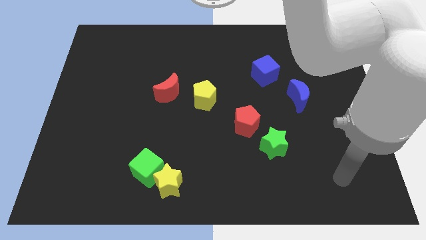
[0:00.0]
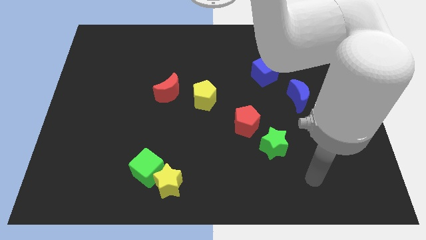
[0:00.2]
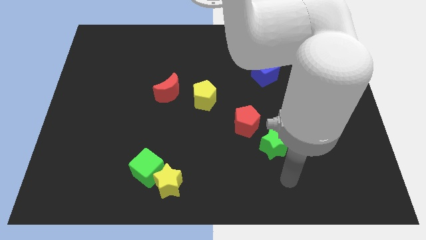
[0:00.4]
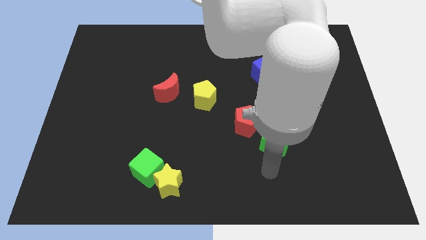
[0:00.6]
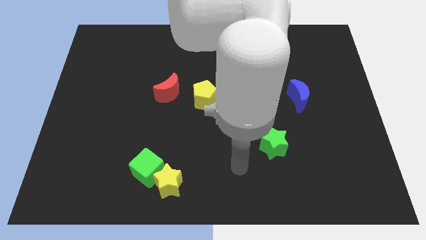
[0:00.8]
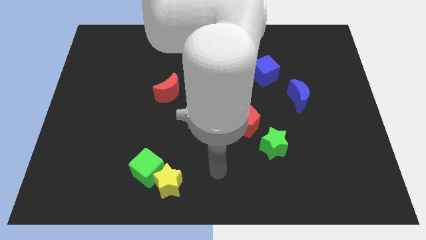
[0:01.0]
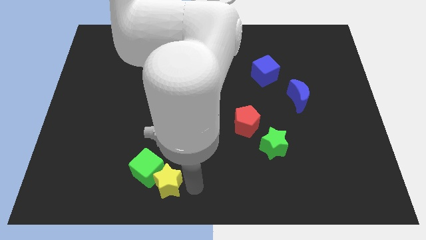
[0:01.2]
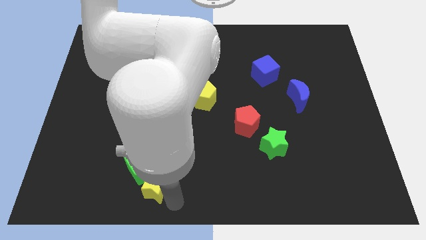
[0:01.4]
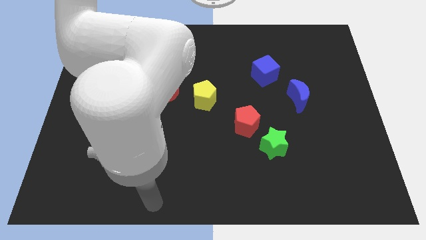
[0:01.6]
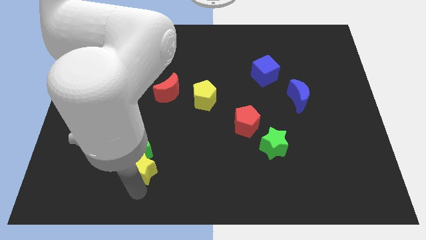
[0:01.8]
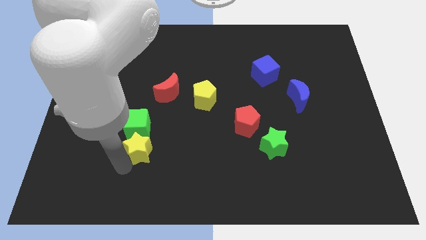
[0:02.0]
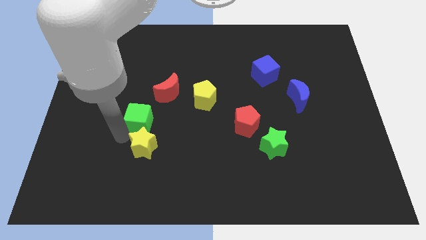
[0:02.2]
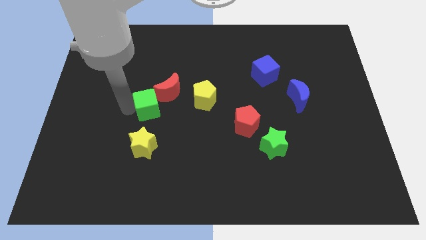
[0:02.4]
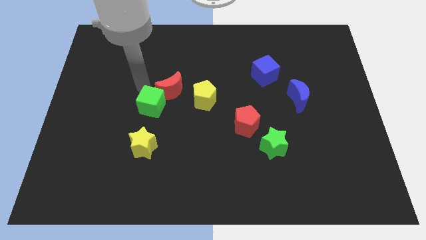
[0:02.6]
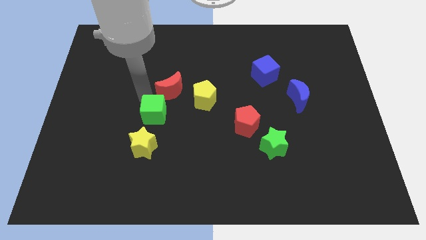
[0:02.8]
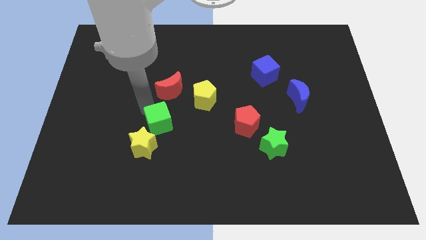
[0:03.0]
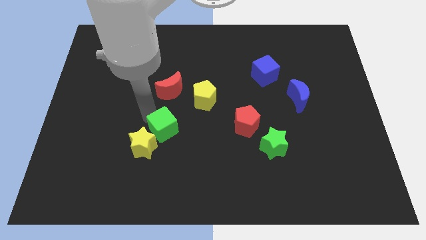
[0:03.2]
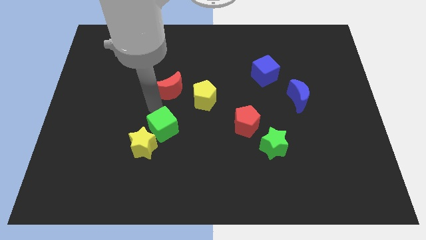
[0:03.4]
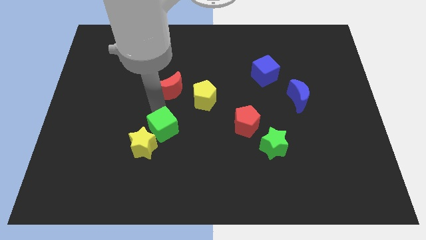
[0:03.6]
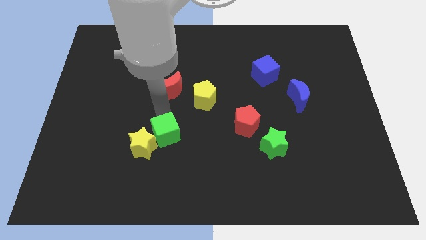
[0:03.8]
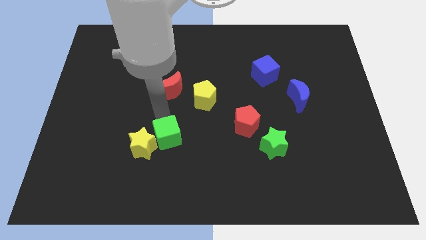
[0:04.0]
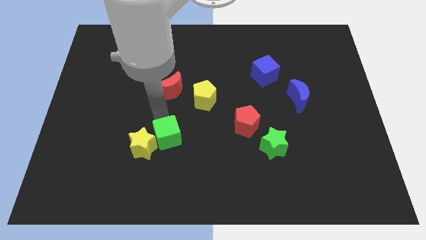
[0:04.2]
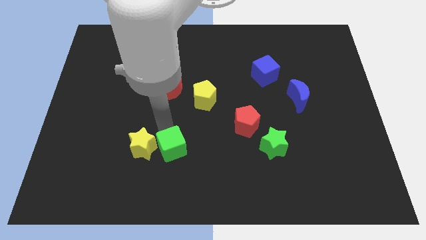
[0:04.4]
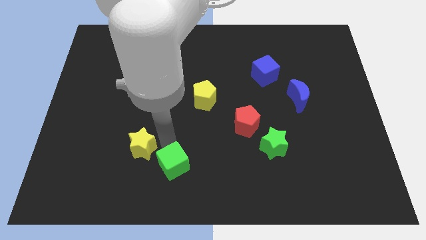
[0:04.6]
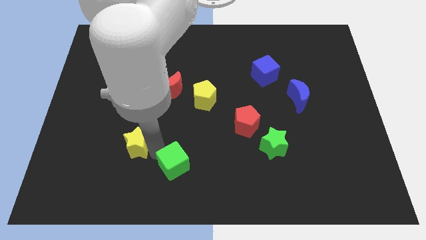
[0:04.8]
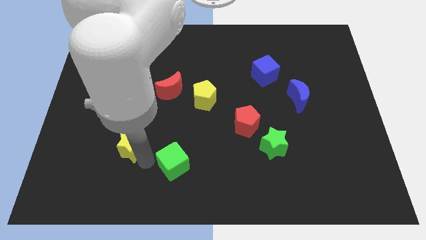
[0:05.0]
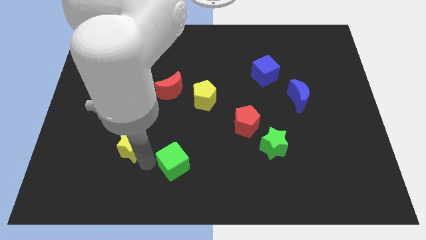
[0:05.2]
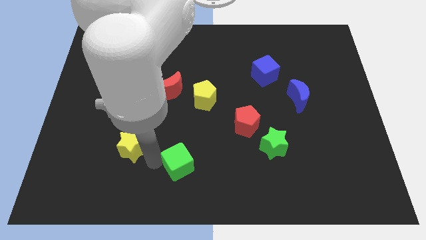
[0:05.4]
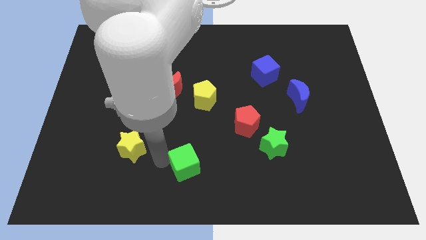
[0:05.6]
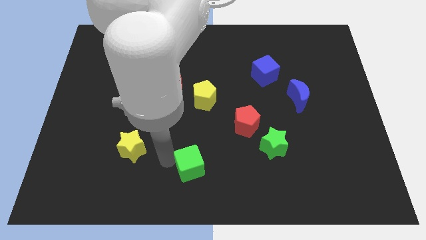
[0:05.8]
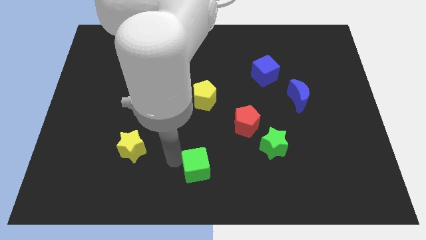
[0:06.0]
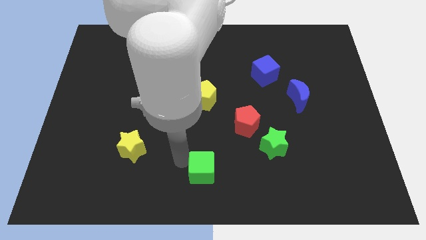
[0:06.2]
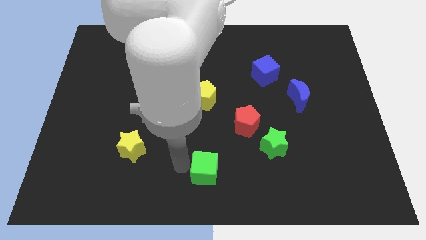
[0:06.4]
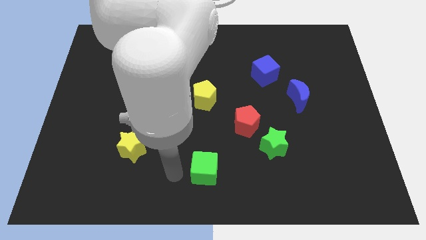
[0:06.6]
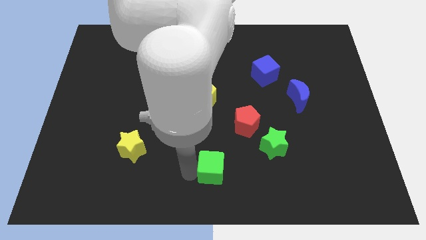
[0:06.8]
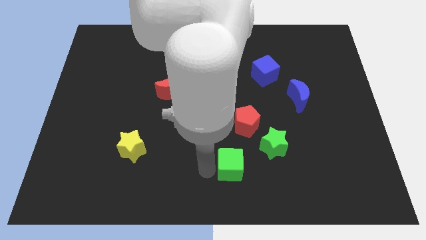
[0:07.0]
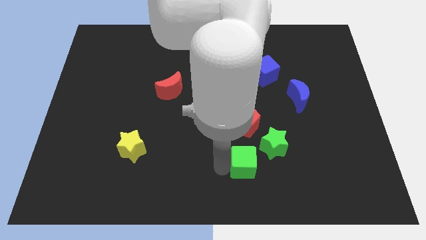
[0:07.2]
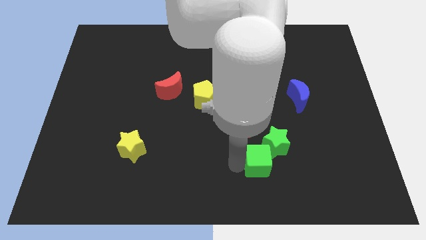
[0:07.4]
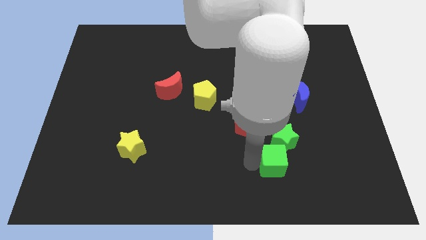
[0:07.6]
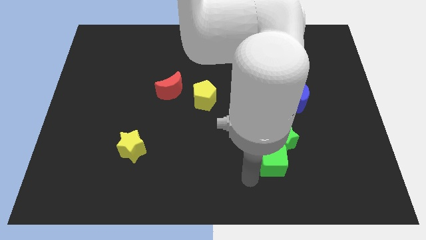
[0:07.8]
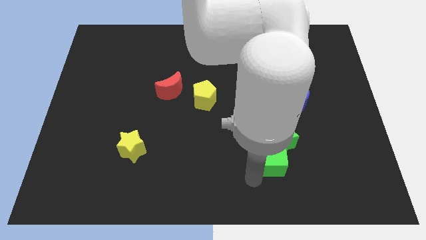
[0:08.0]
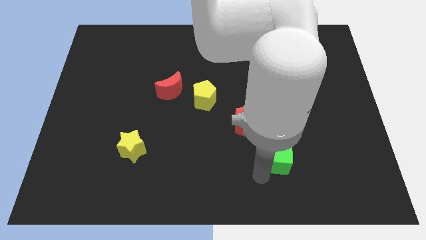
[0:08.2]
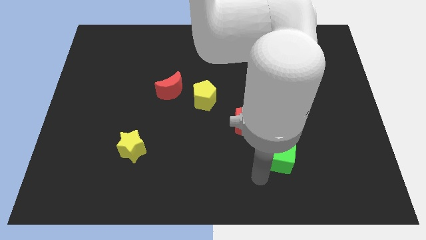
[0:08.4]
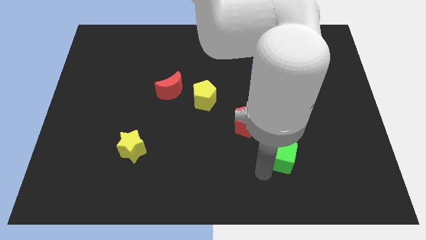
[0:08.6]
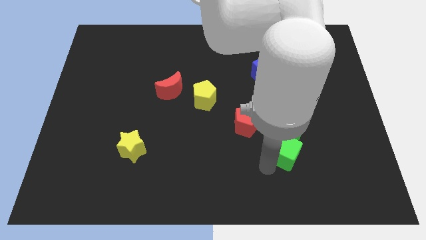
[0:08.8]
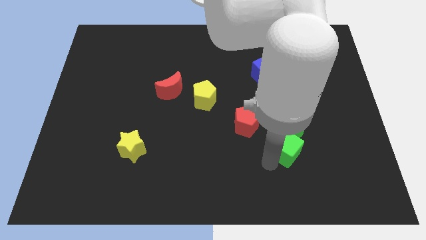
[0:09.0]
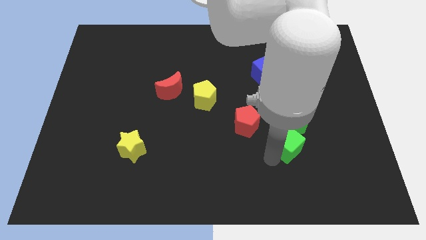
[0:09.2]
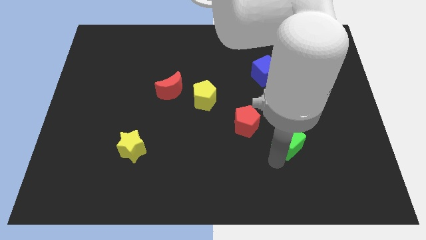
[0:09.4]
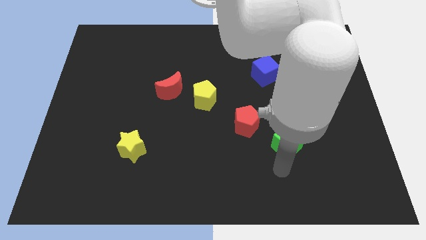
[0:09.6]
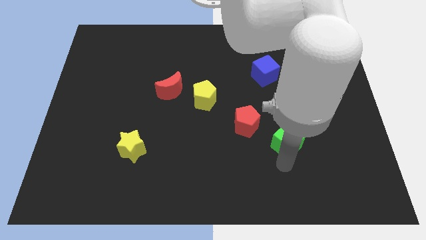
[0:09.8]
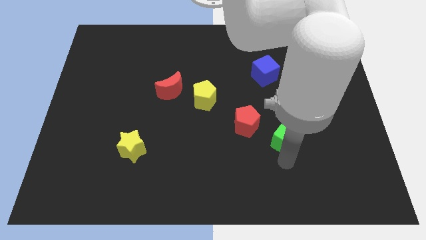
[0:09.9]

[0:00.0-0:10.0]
move the green cube right of the red pentagon

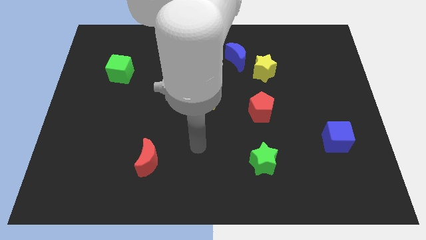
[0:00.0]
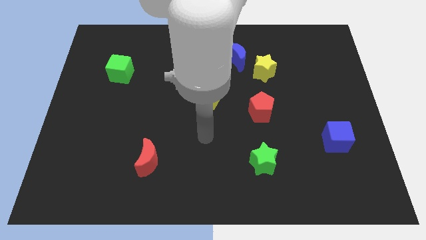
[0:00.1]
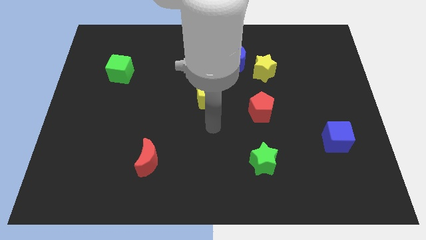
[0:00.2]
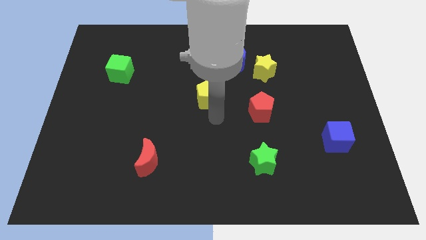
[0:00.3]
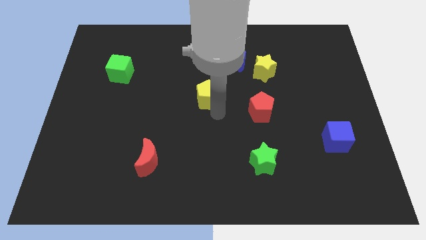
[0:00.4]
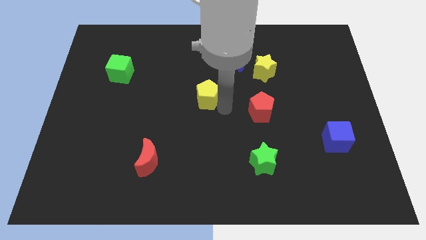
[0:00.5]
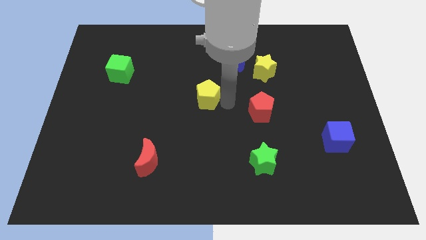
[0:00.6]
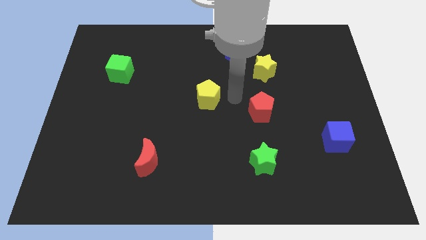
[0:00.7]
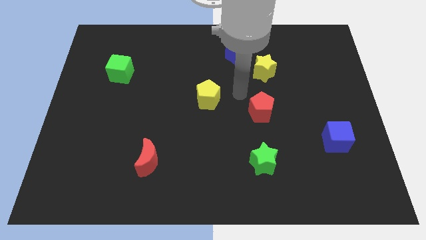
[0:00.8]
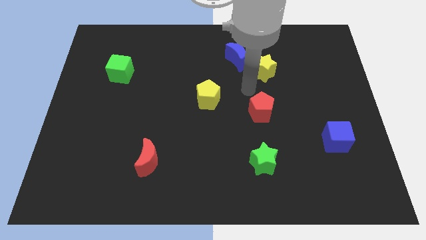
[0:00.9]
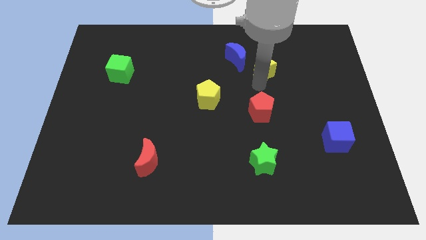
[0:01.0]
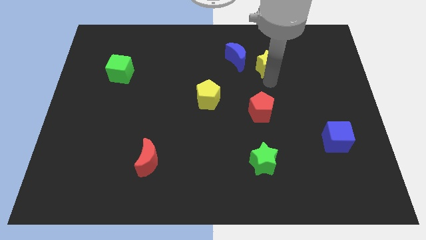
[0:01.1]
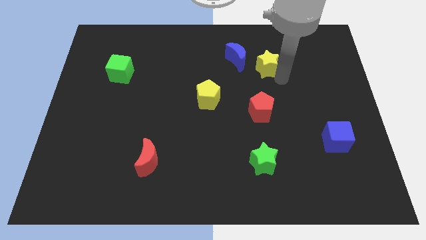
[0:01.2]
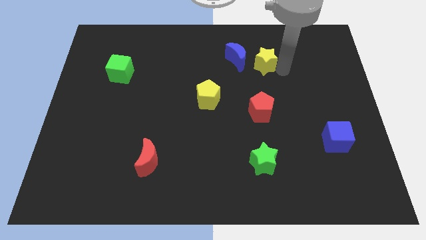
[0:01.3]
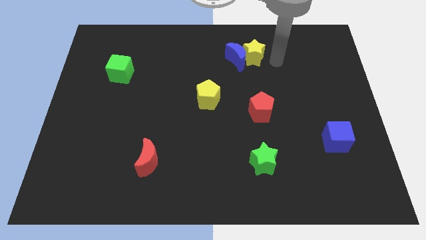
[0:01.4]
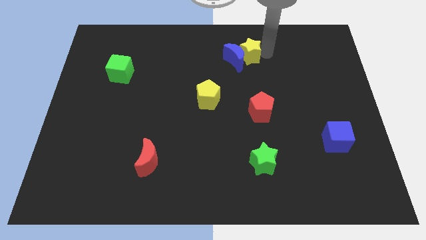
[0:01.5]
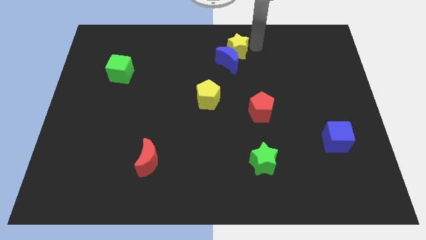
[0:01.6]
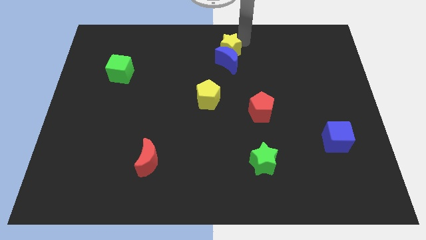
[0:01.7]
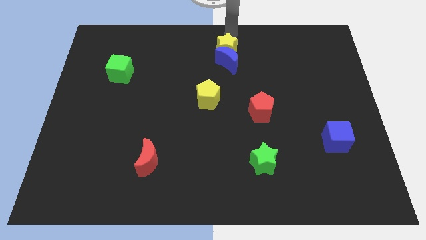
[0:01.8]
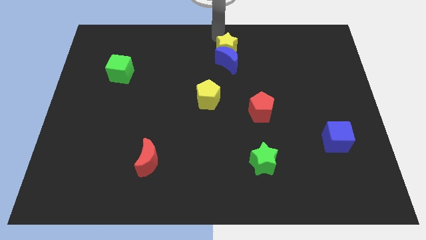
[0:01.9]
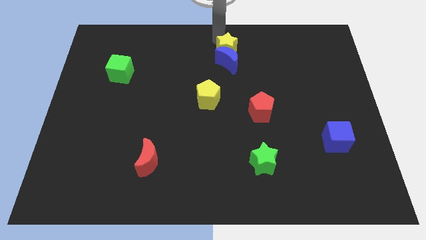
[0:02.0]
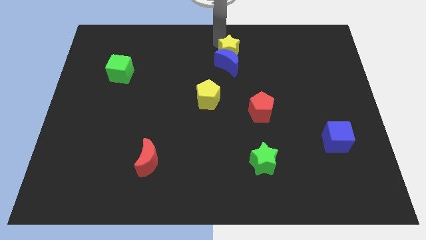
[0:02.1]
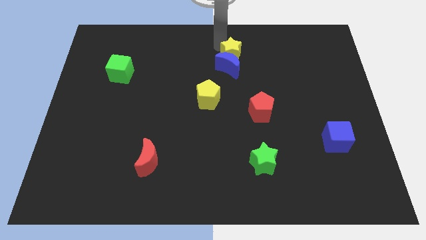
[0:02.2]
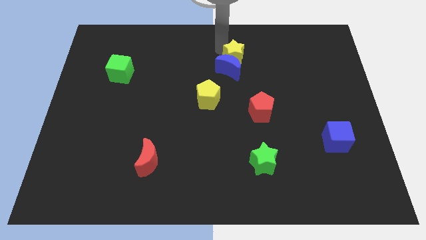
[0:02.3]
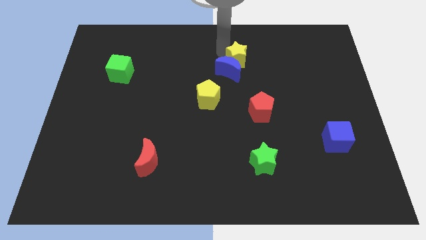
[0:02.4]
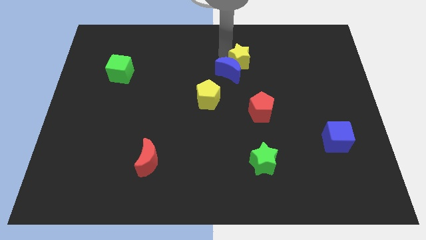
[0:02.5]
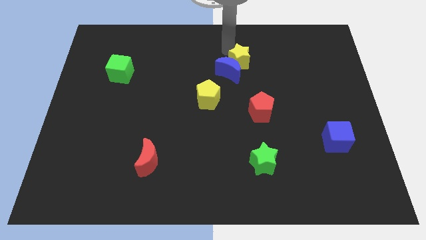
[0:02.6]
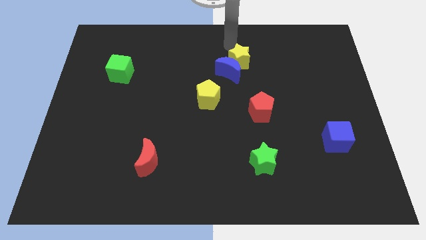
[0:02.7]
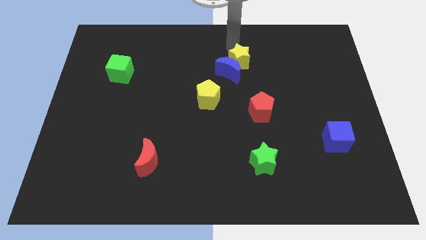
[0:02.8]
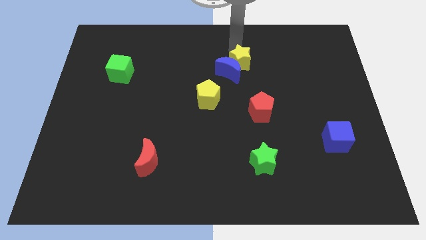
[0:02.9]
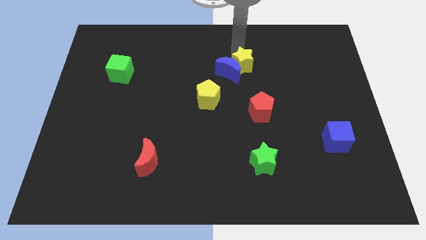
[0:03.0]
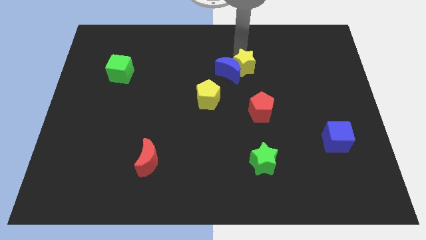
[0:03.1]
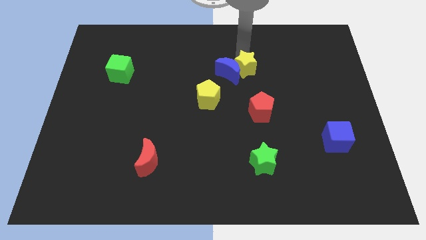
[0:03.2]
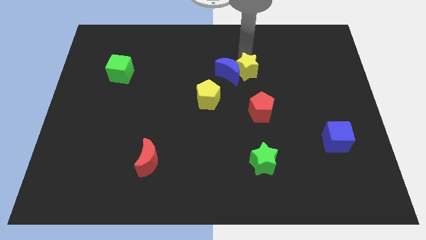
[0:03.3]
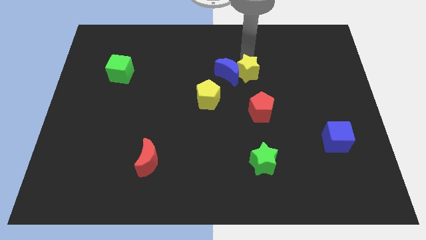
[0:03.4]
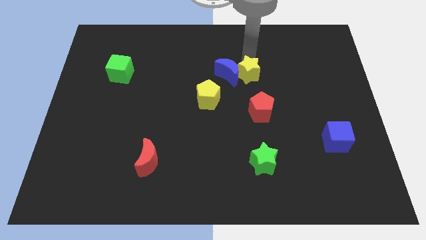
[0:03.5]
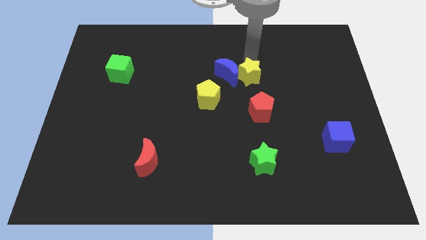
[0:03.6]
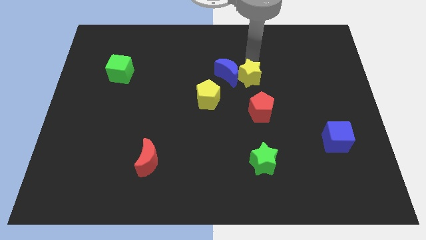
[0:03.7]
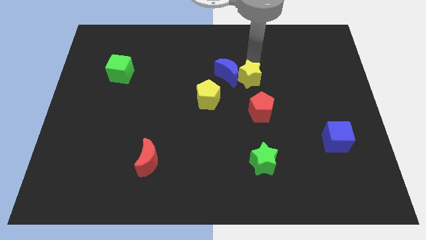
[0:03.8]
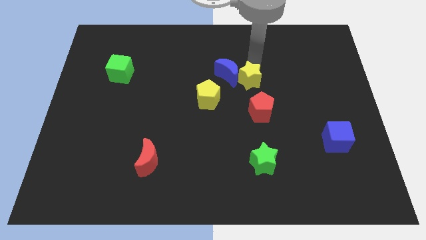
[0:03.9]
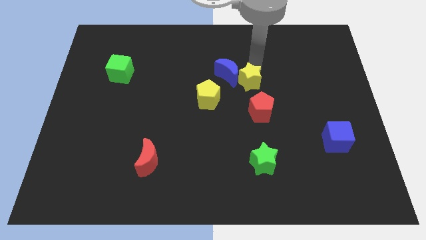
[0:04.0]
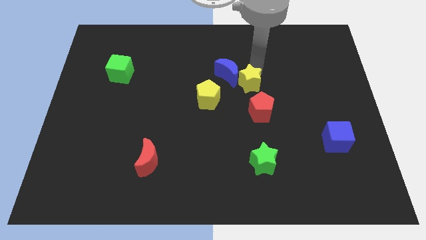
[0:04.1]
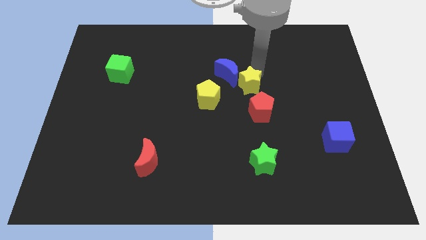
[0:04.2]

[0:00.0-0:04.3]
push the yellow star right of the yellow pentagon
